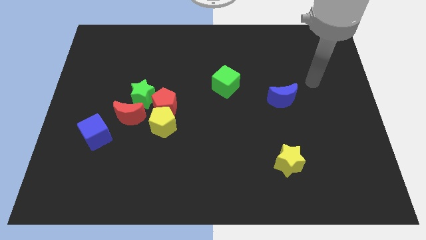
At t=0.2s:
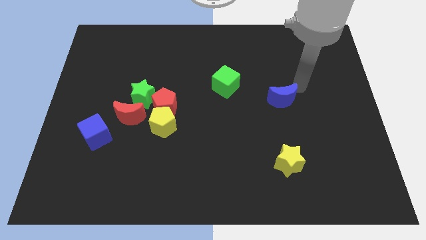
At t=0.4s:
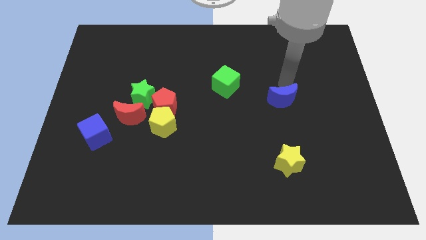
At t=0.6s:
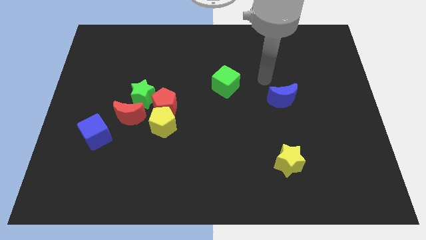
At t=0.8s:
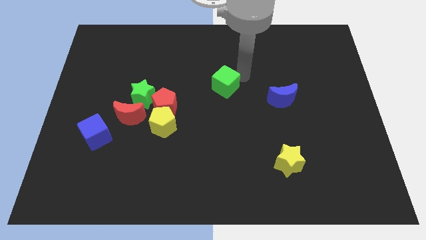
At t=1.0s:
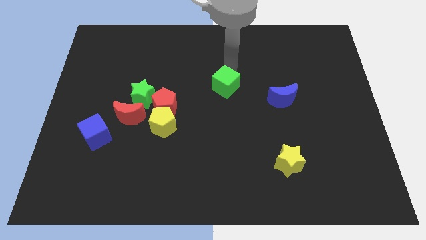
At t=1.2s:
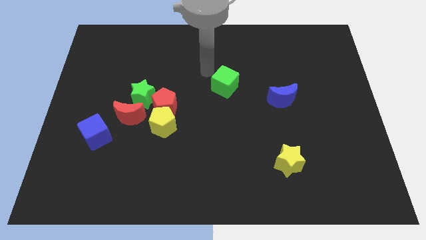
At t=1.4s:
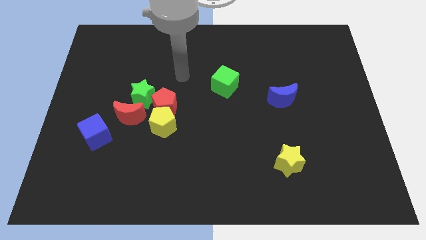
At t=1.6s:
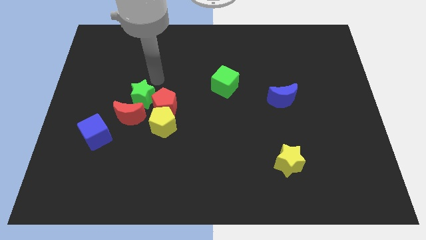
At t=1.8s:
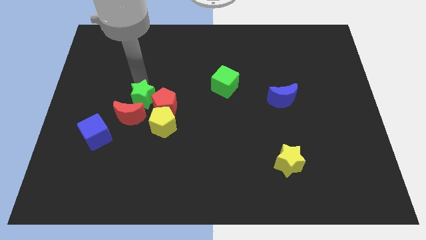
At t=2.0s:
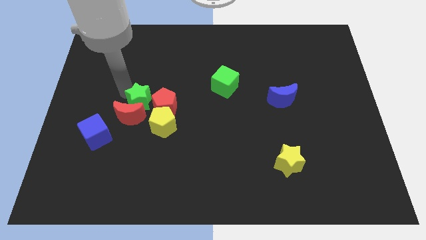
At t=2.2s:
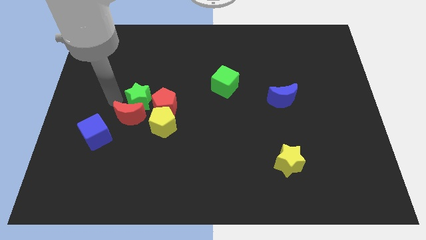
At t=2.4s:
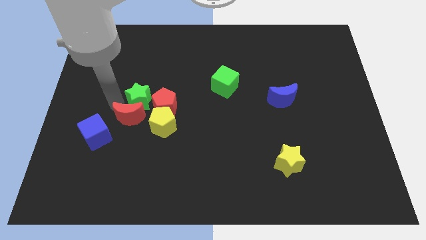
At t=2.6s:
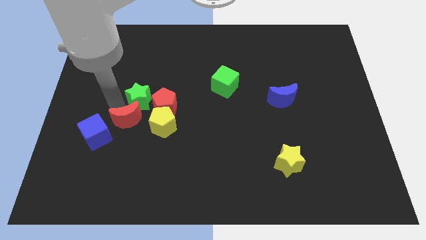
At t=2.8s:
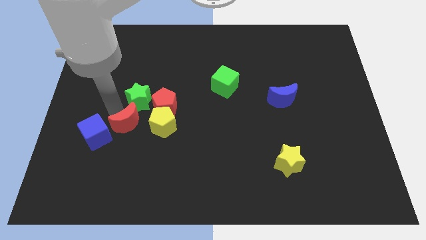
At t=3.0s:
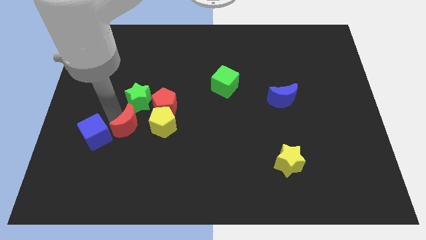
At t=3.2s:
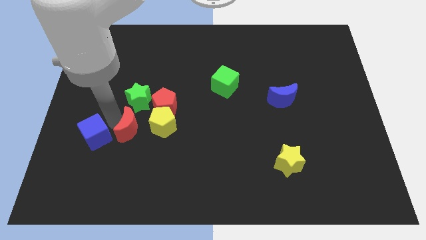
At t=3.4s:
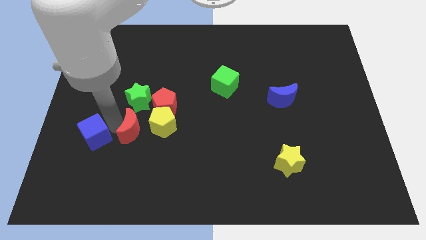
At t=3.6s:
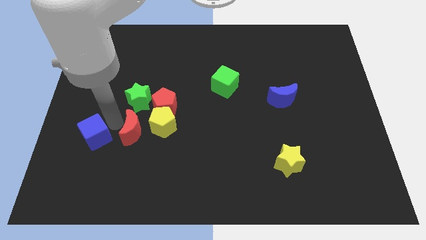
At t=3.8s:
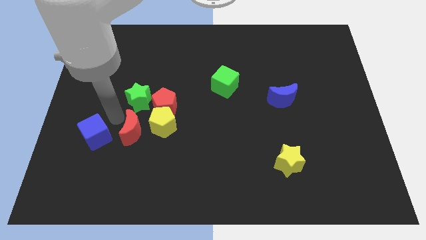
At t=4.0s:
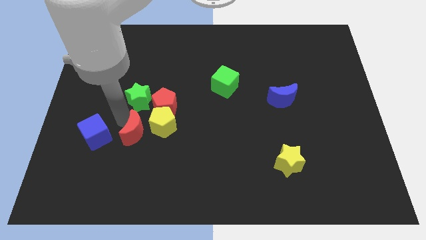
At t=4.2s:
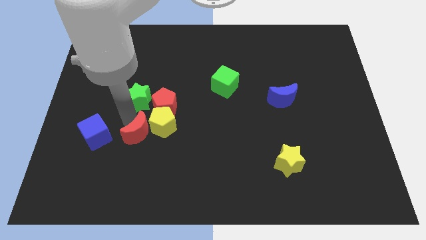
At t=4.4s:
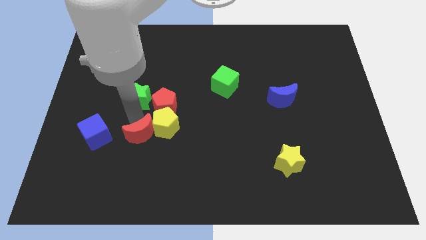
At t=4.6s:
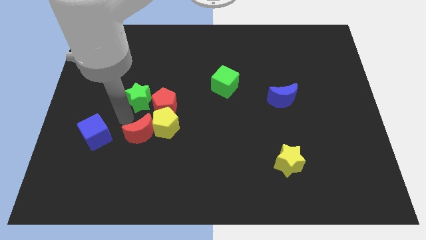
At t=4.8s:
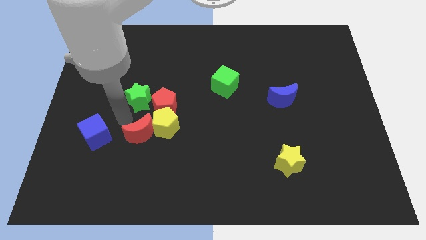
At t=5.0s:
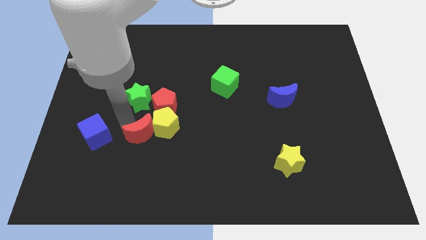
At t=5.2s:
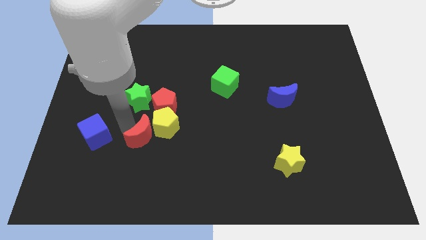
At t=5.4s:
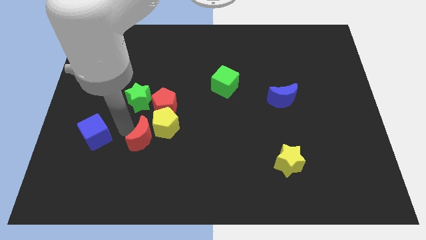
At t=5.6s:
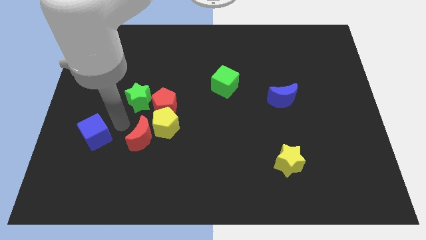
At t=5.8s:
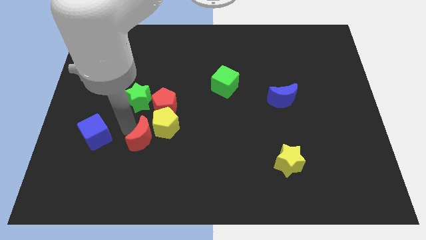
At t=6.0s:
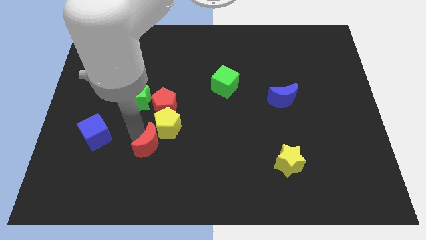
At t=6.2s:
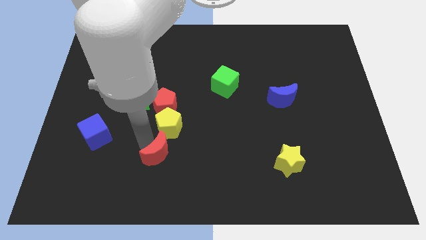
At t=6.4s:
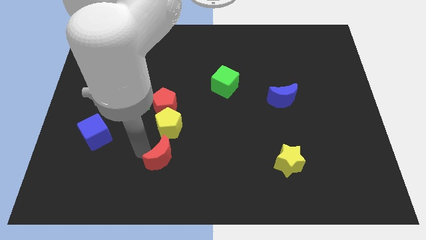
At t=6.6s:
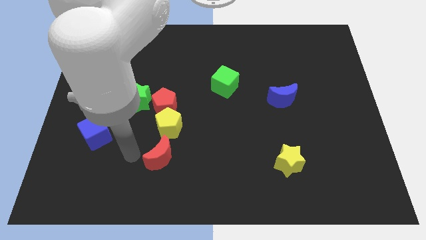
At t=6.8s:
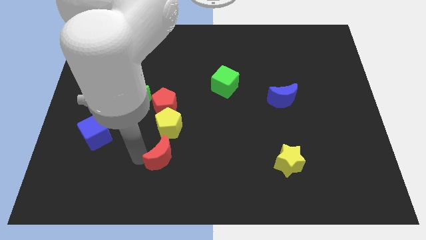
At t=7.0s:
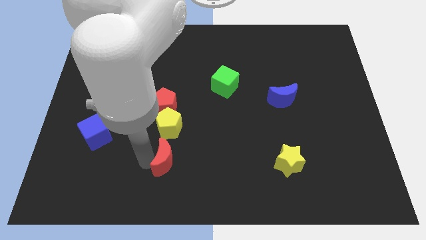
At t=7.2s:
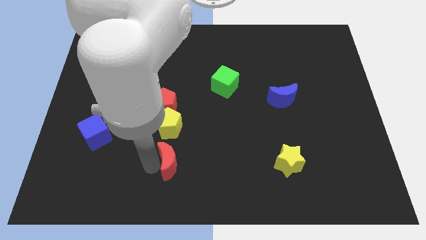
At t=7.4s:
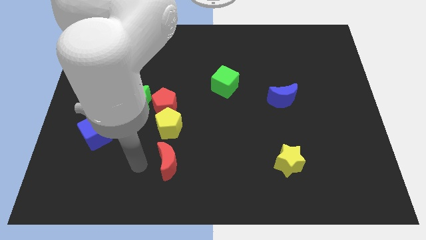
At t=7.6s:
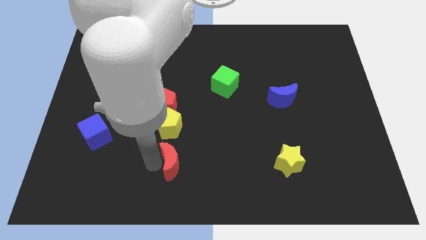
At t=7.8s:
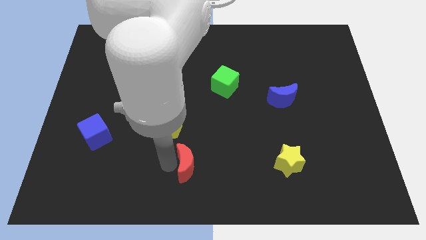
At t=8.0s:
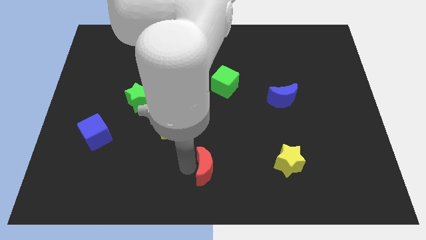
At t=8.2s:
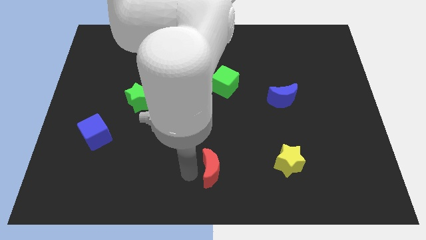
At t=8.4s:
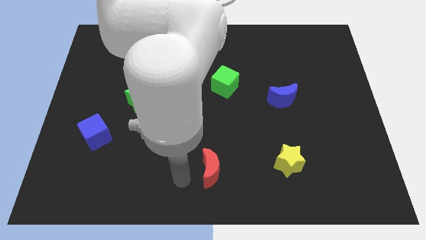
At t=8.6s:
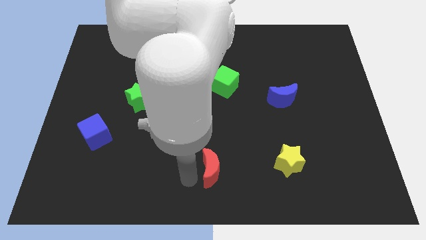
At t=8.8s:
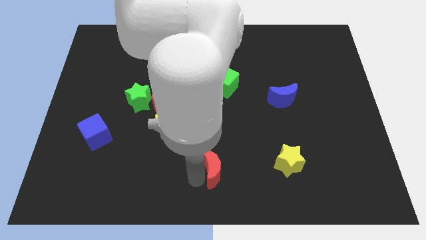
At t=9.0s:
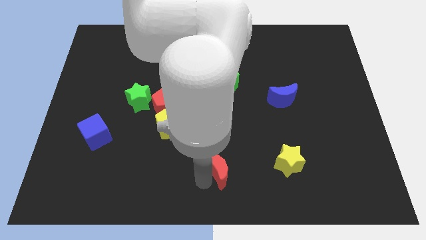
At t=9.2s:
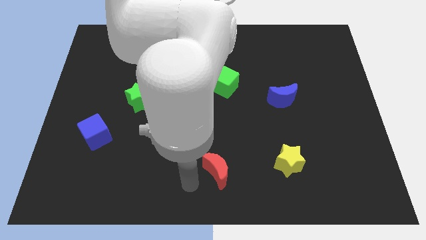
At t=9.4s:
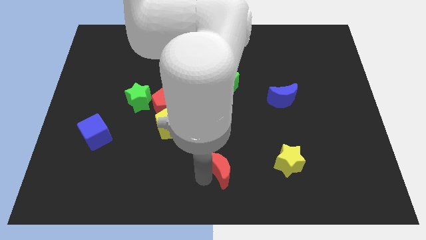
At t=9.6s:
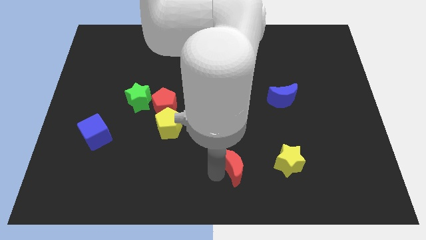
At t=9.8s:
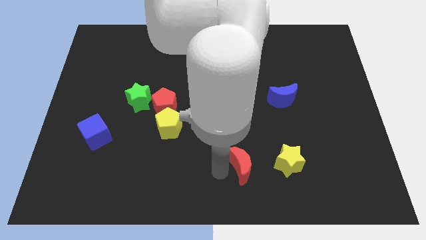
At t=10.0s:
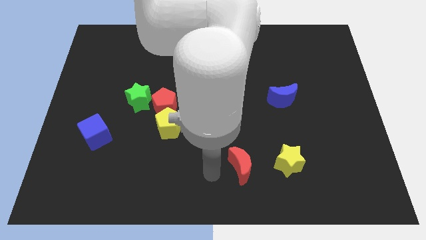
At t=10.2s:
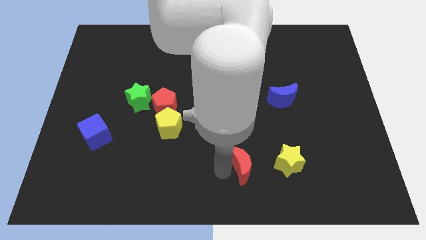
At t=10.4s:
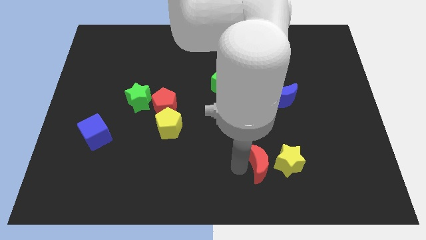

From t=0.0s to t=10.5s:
push the red moon to the yellow star

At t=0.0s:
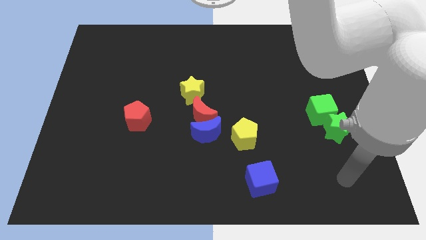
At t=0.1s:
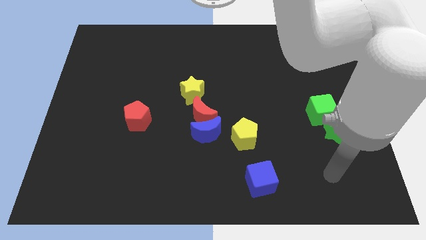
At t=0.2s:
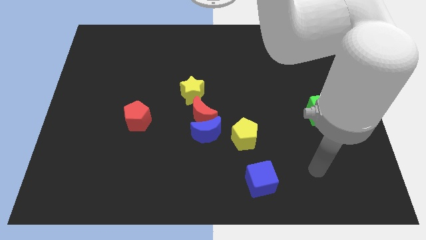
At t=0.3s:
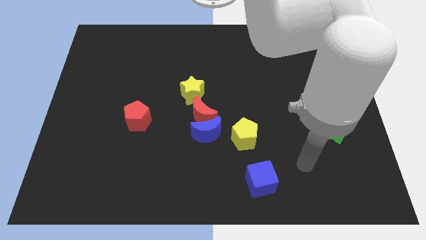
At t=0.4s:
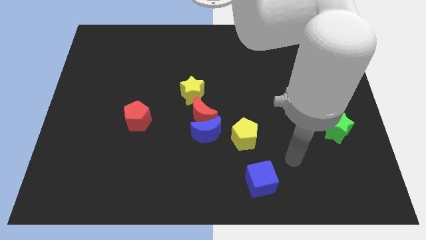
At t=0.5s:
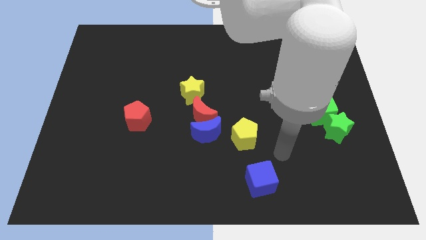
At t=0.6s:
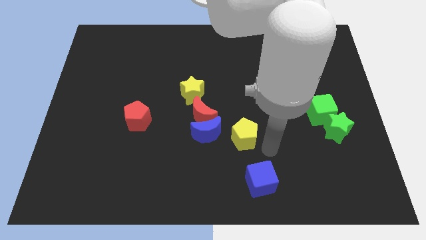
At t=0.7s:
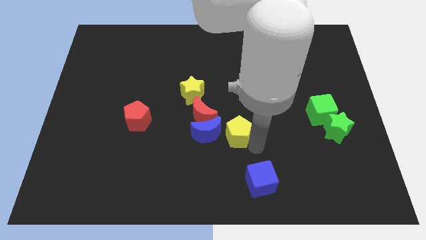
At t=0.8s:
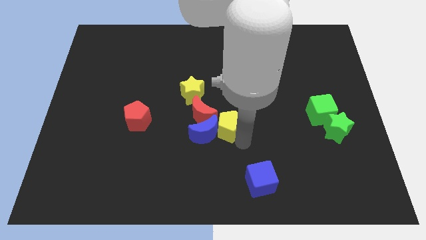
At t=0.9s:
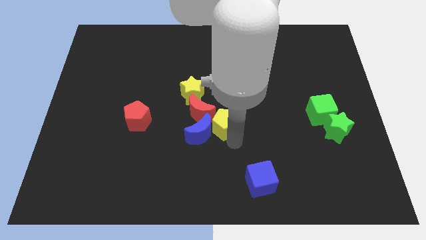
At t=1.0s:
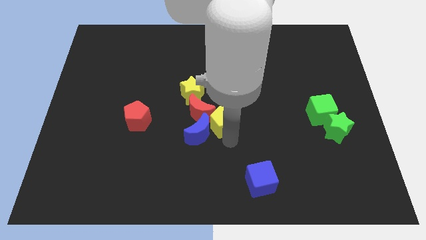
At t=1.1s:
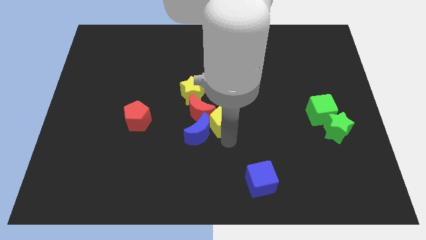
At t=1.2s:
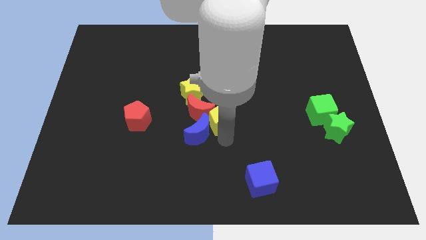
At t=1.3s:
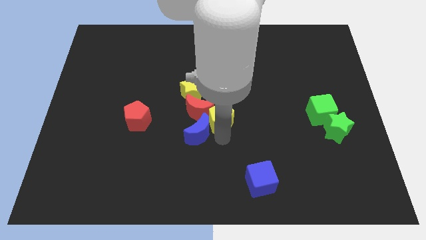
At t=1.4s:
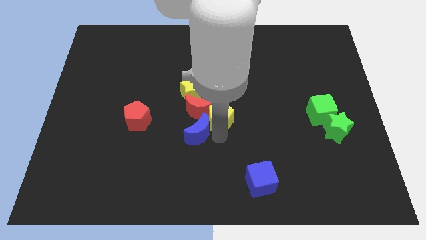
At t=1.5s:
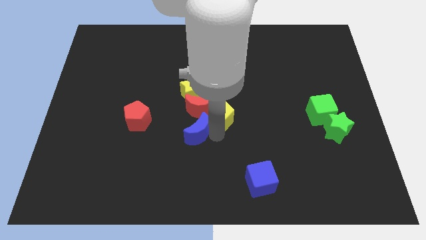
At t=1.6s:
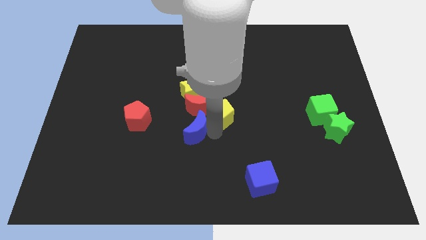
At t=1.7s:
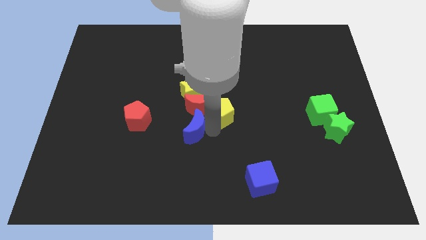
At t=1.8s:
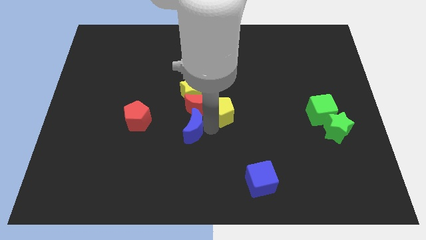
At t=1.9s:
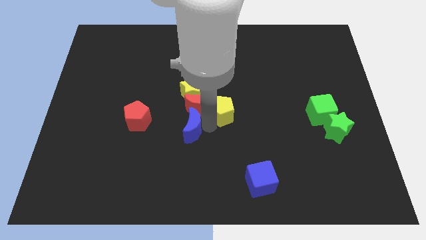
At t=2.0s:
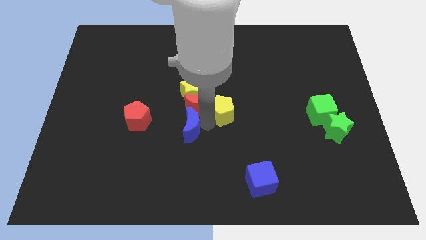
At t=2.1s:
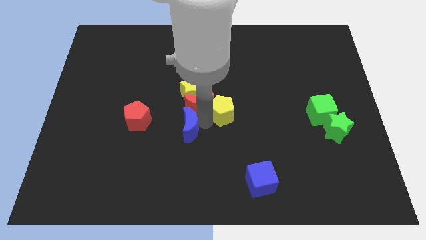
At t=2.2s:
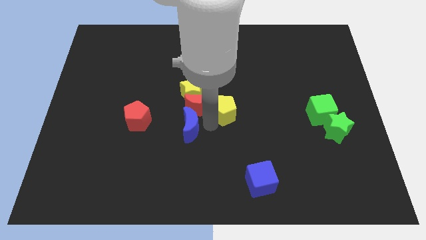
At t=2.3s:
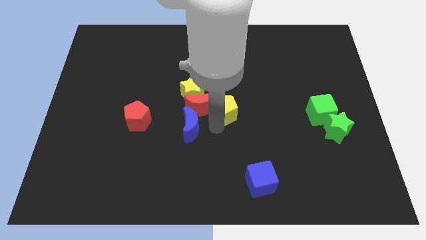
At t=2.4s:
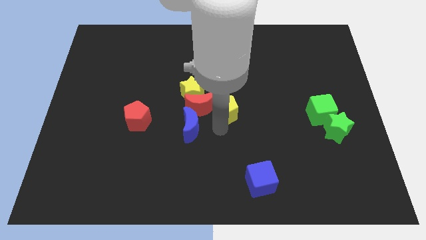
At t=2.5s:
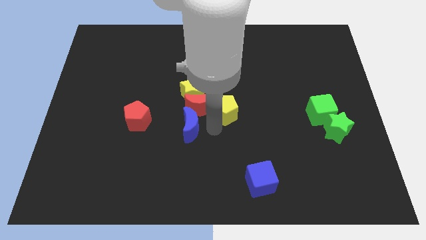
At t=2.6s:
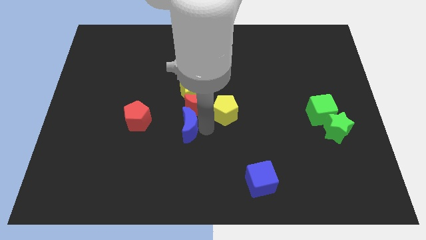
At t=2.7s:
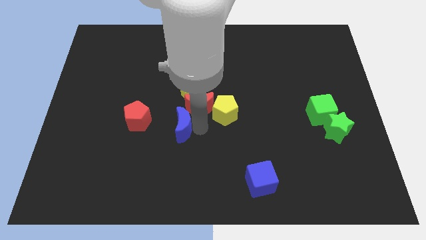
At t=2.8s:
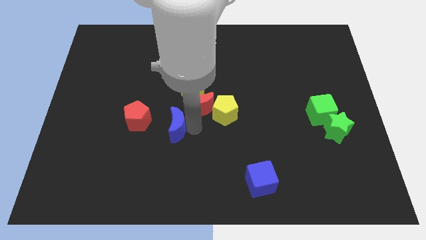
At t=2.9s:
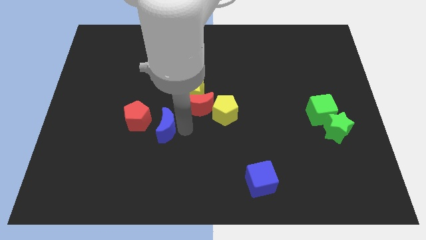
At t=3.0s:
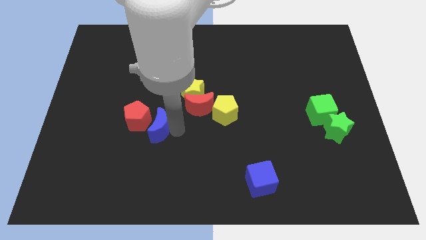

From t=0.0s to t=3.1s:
slide the blue moon next to the red pentagon
